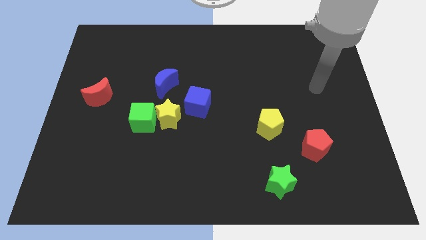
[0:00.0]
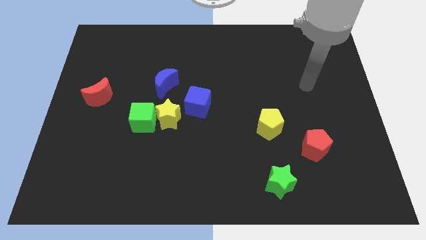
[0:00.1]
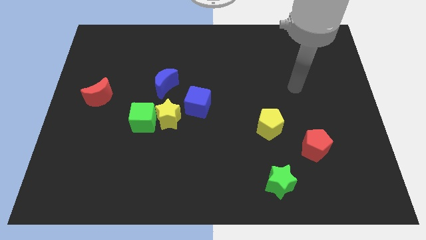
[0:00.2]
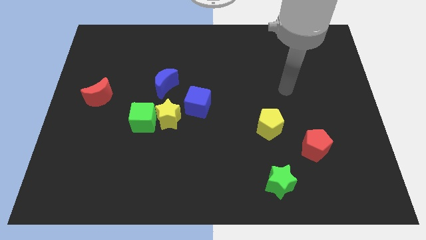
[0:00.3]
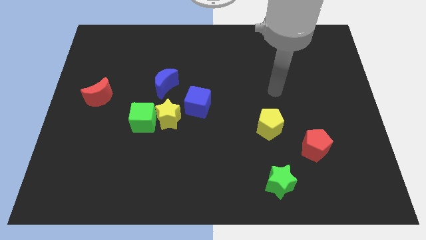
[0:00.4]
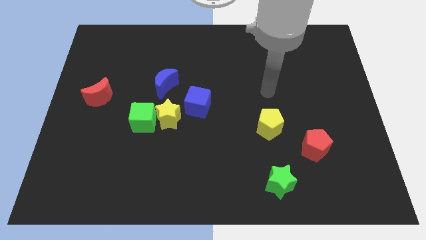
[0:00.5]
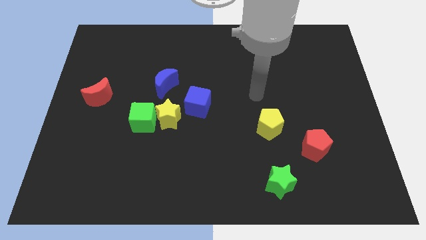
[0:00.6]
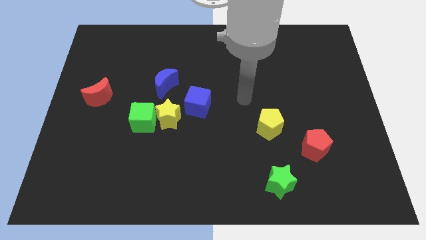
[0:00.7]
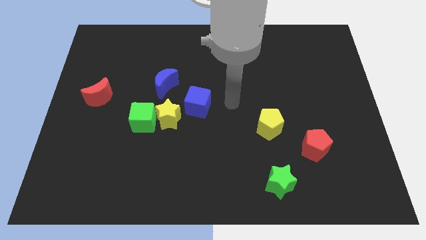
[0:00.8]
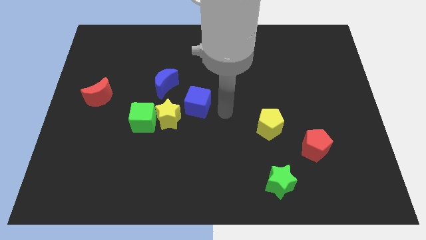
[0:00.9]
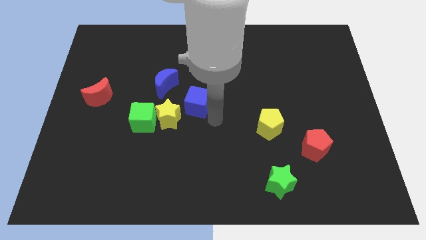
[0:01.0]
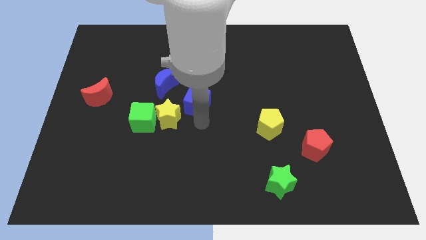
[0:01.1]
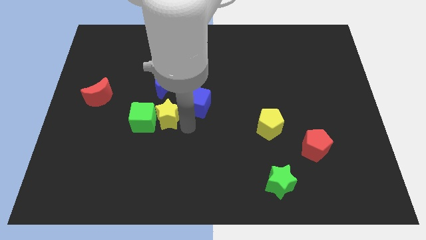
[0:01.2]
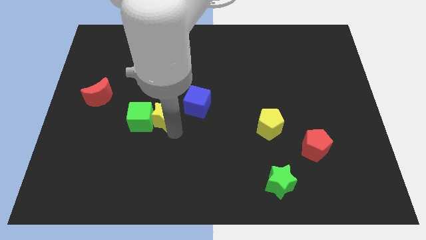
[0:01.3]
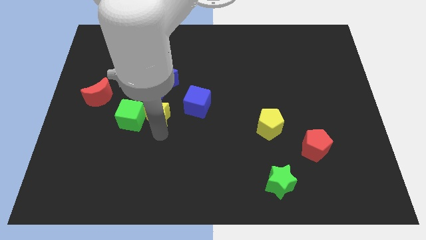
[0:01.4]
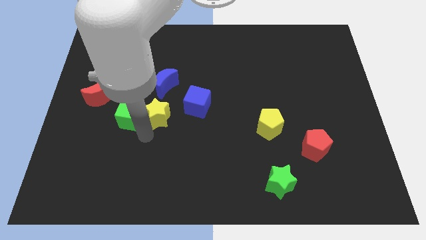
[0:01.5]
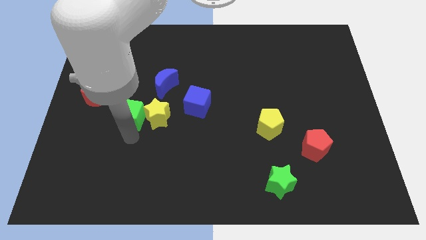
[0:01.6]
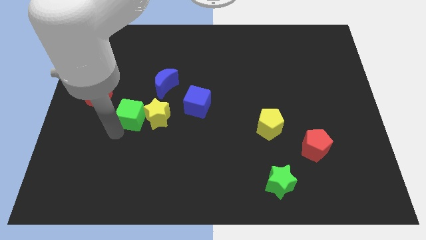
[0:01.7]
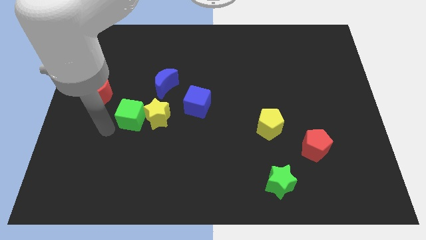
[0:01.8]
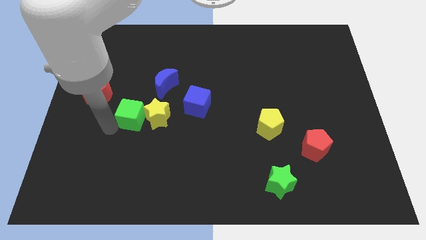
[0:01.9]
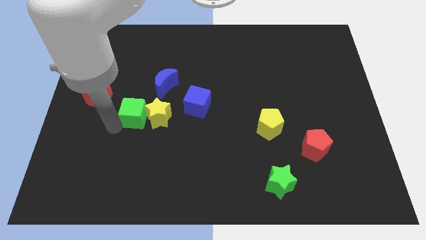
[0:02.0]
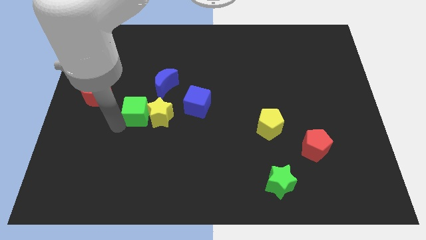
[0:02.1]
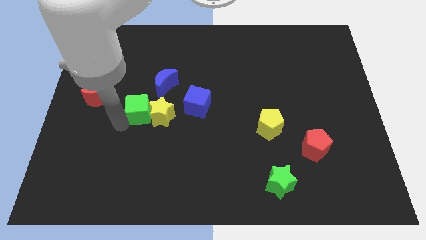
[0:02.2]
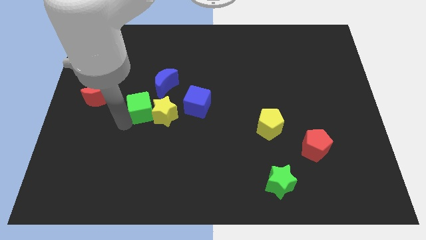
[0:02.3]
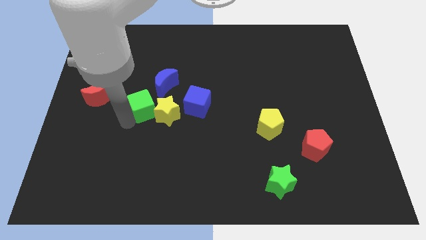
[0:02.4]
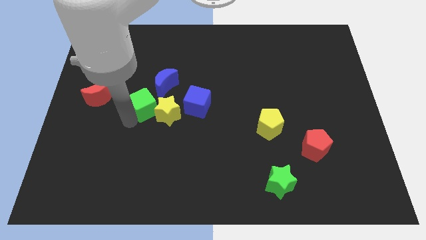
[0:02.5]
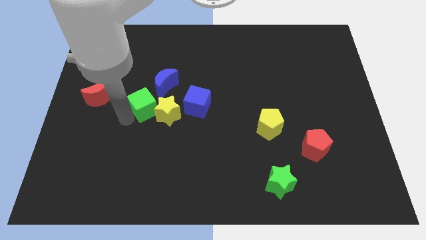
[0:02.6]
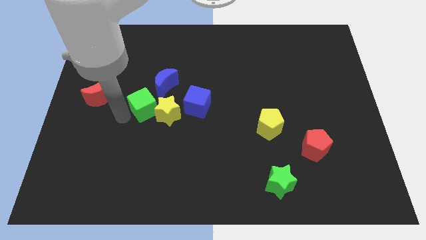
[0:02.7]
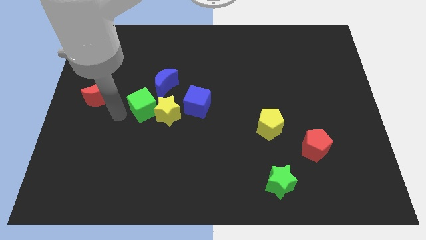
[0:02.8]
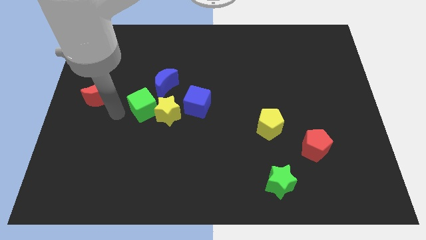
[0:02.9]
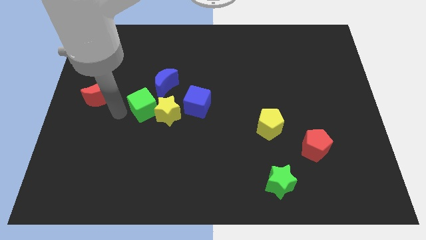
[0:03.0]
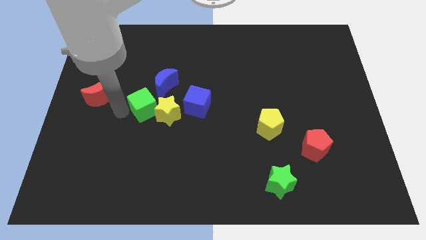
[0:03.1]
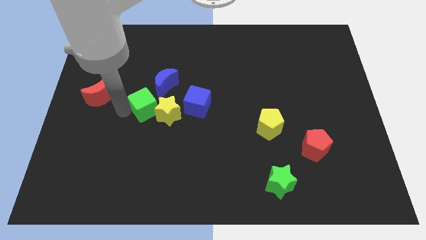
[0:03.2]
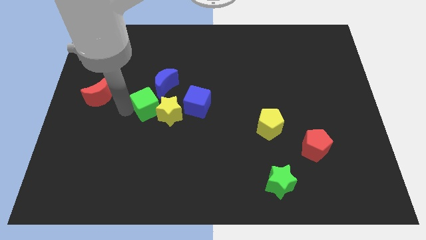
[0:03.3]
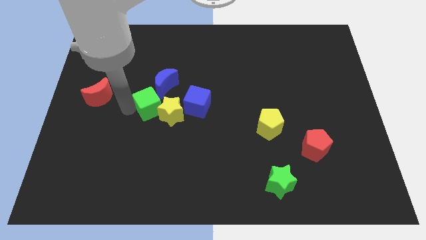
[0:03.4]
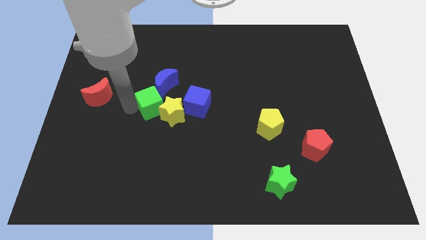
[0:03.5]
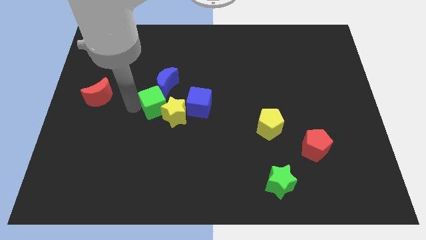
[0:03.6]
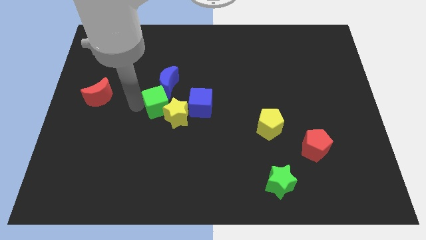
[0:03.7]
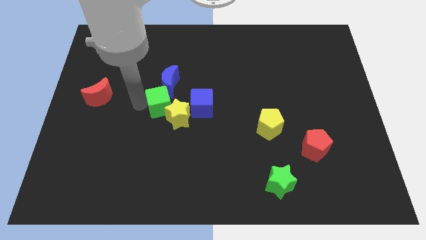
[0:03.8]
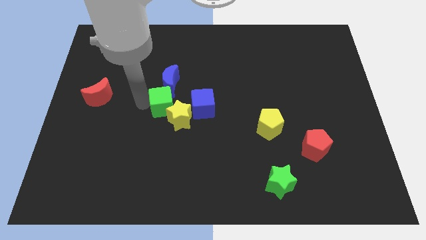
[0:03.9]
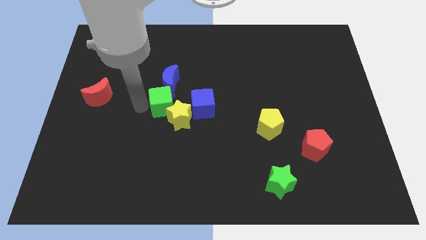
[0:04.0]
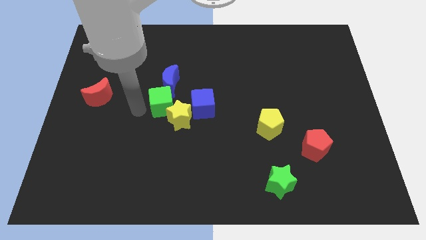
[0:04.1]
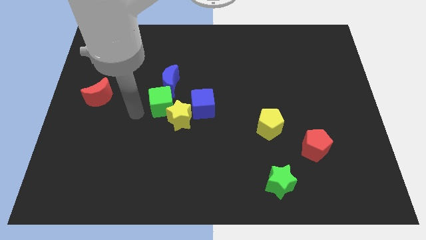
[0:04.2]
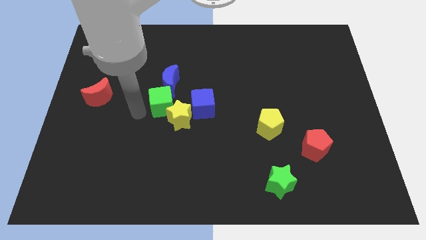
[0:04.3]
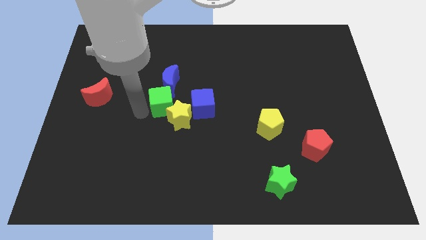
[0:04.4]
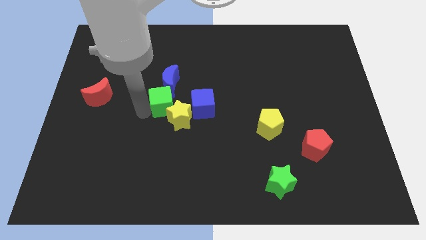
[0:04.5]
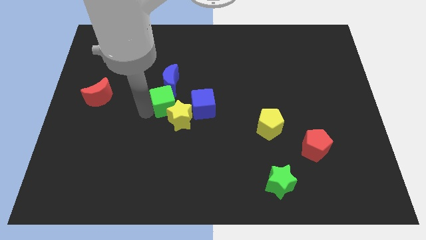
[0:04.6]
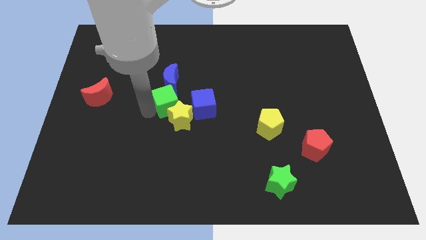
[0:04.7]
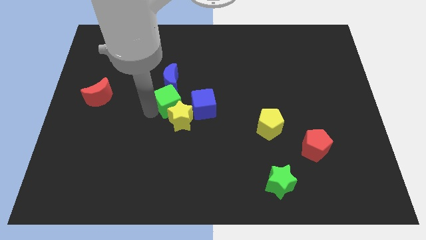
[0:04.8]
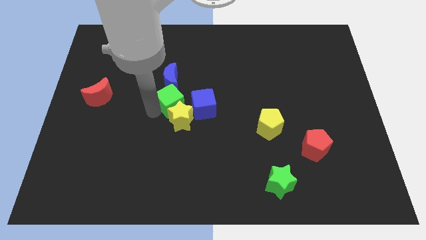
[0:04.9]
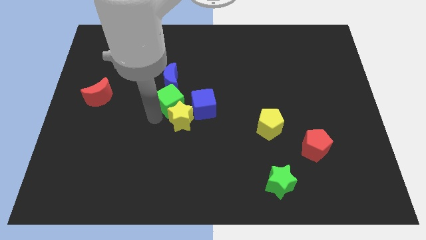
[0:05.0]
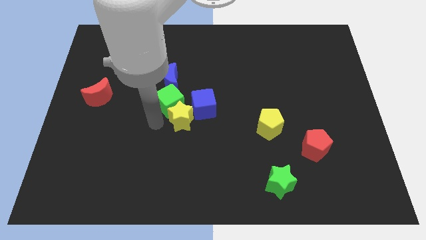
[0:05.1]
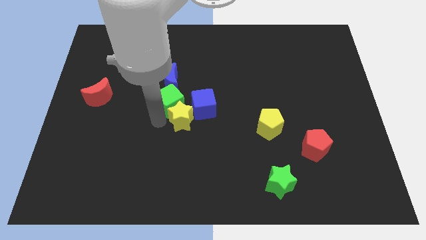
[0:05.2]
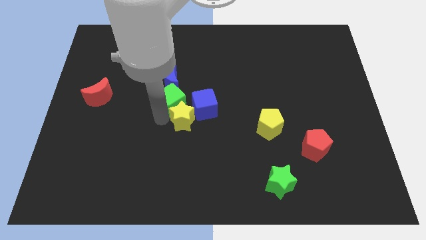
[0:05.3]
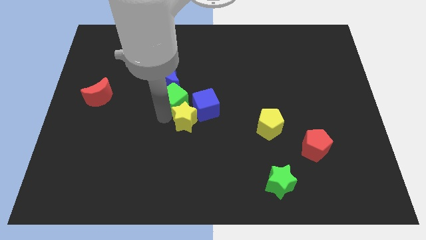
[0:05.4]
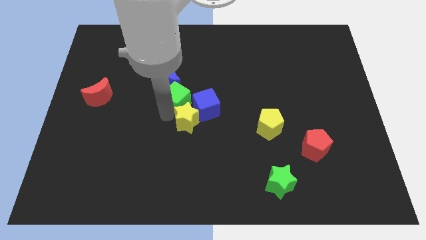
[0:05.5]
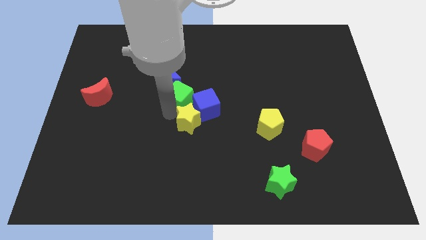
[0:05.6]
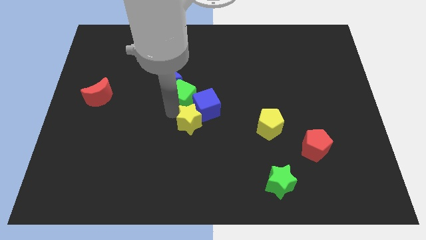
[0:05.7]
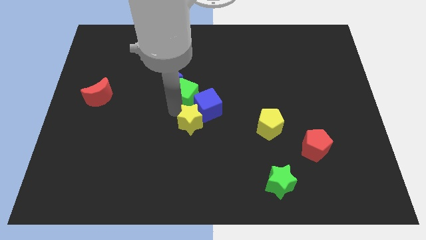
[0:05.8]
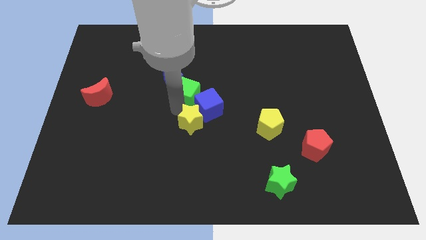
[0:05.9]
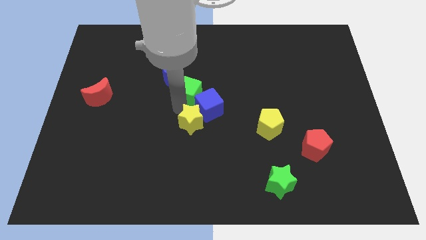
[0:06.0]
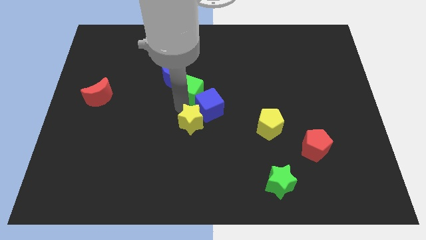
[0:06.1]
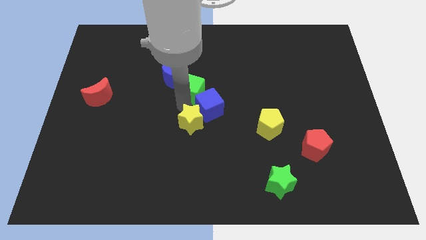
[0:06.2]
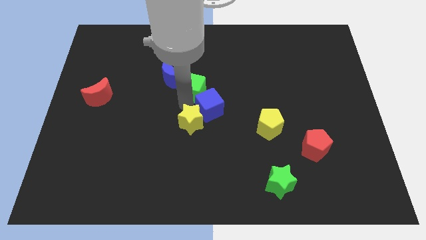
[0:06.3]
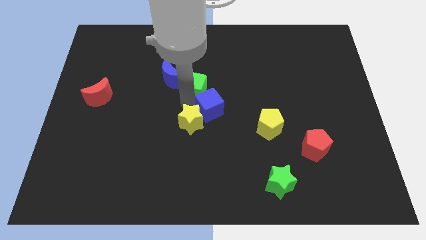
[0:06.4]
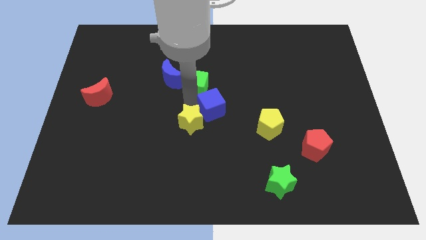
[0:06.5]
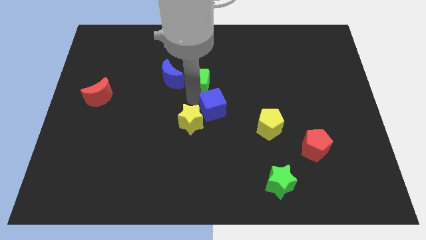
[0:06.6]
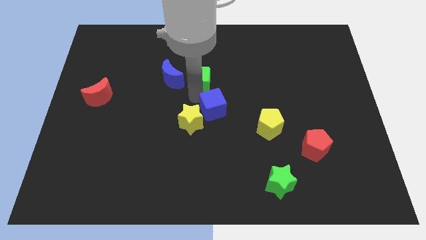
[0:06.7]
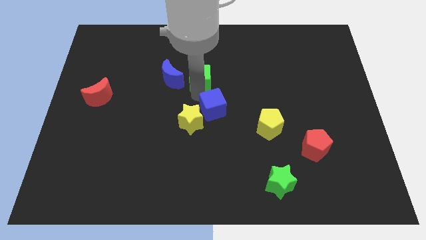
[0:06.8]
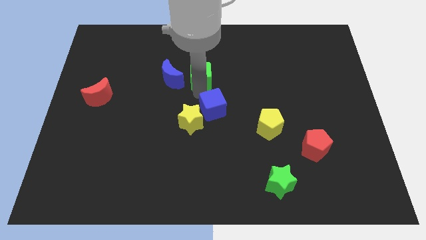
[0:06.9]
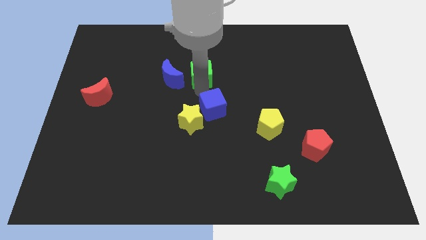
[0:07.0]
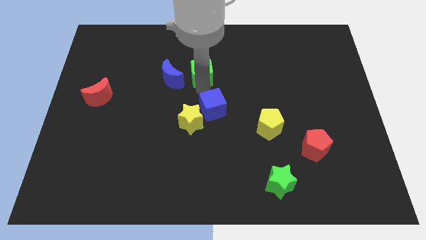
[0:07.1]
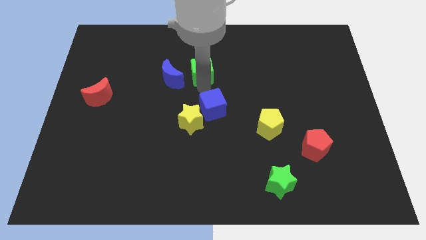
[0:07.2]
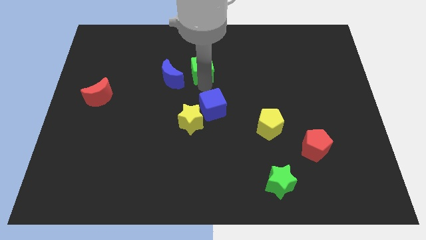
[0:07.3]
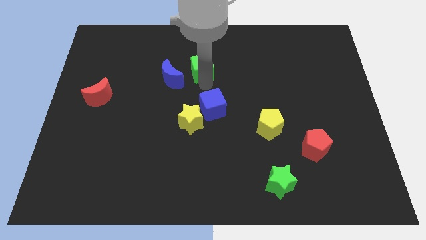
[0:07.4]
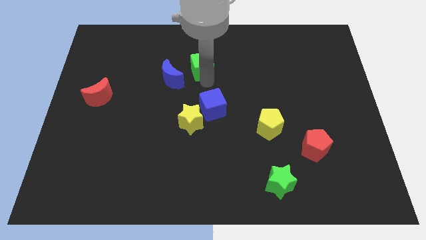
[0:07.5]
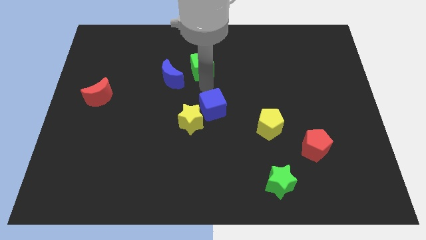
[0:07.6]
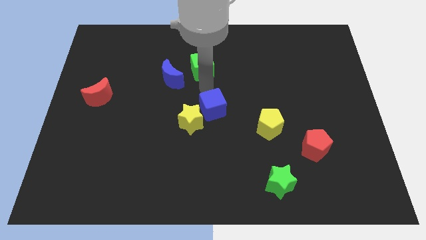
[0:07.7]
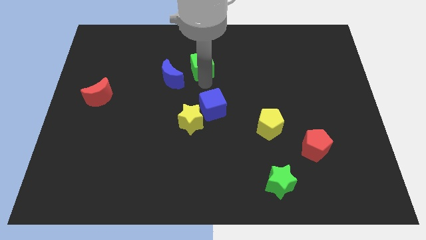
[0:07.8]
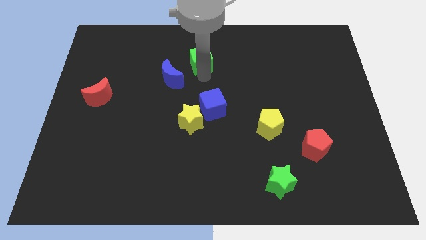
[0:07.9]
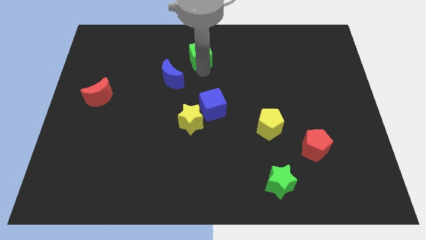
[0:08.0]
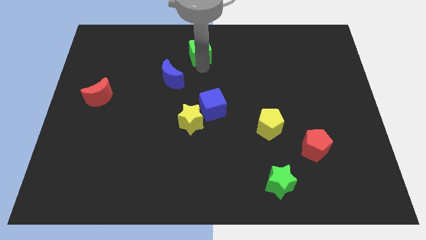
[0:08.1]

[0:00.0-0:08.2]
slide the green cube to the towards your base
